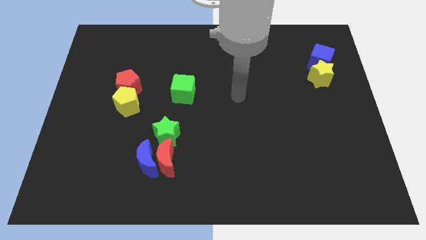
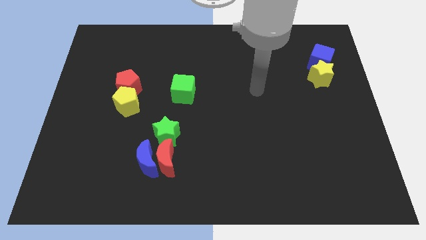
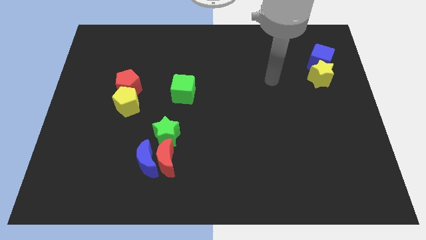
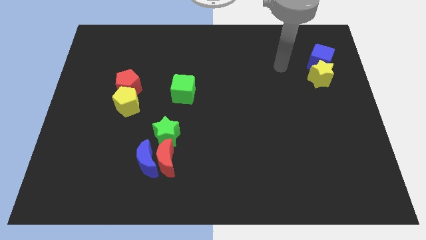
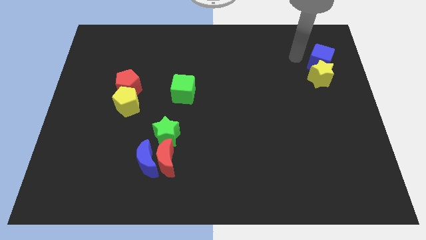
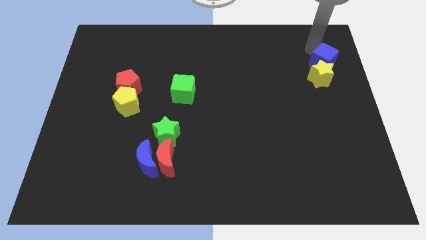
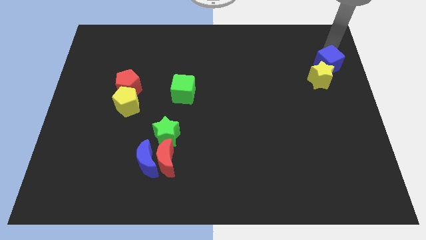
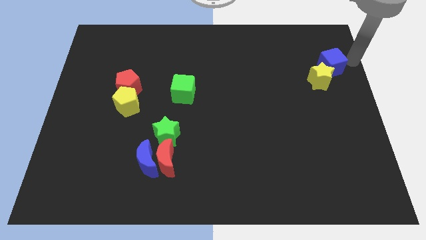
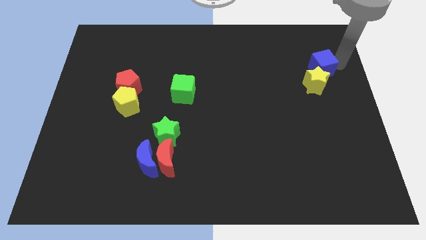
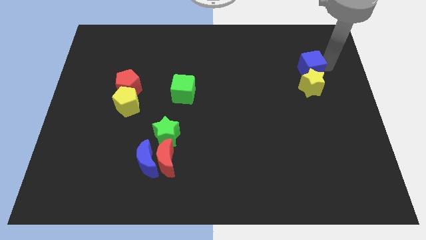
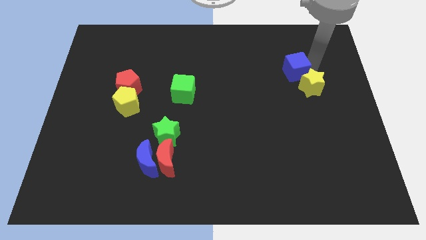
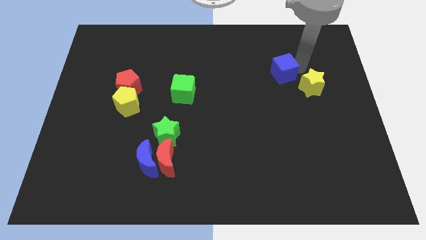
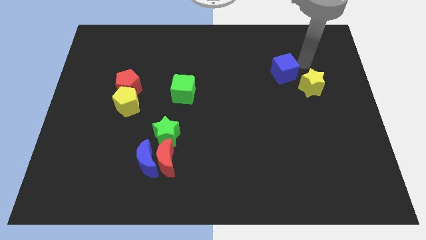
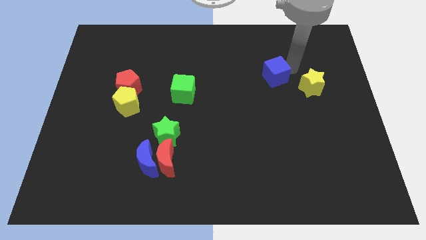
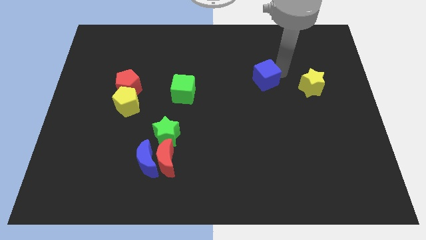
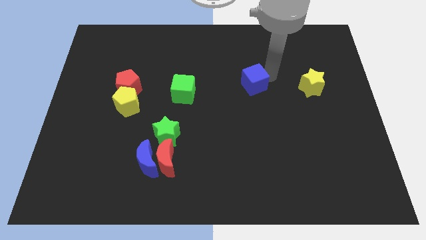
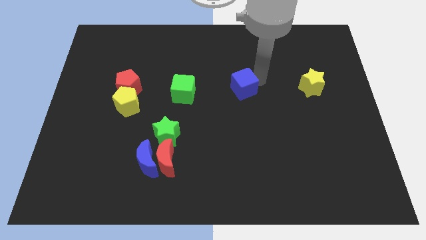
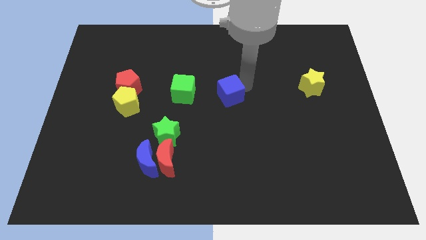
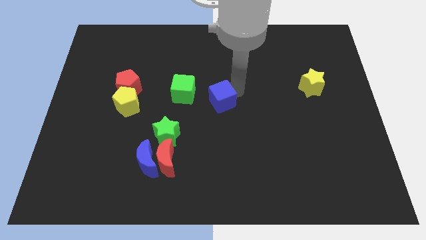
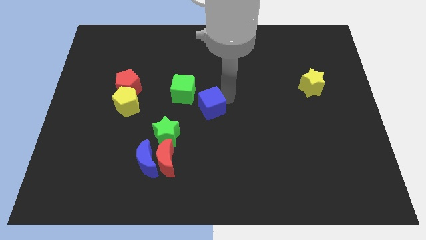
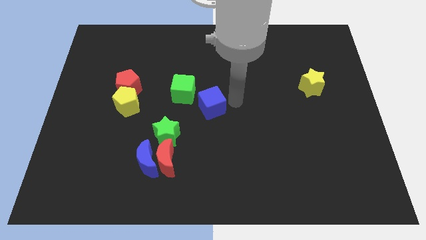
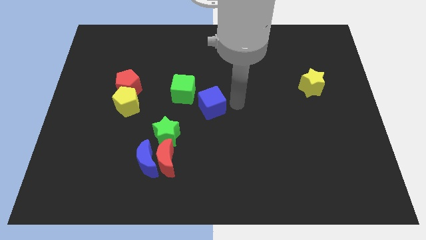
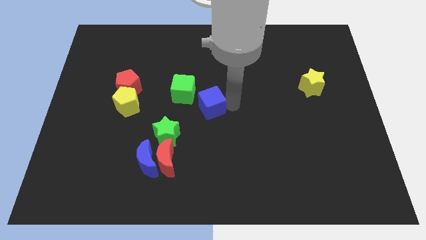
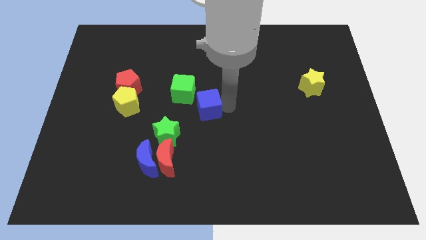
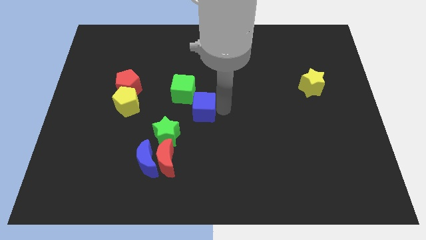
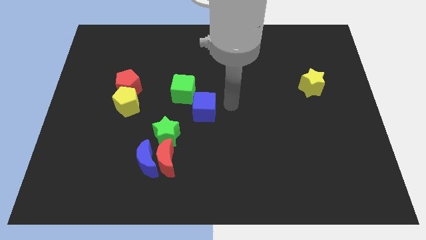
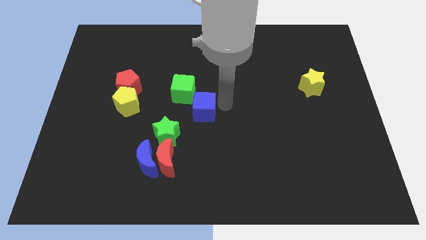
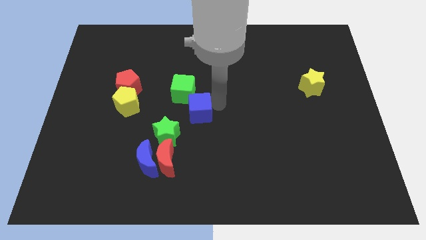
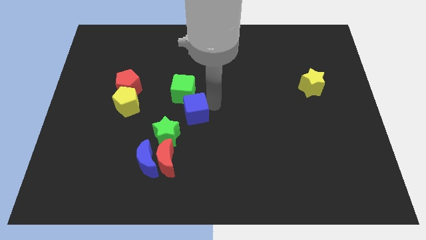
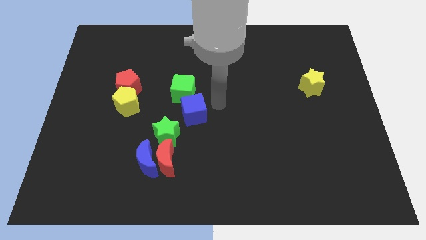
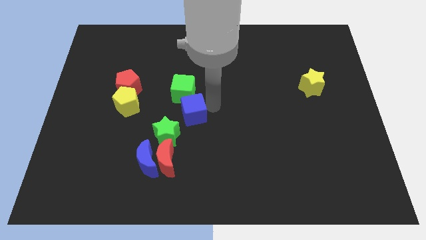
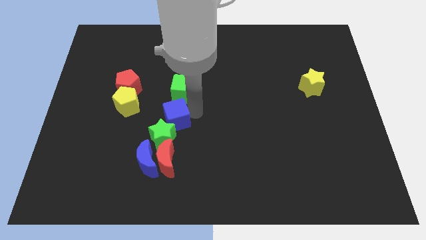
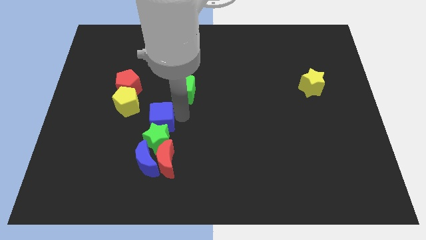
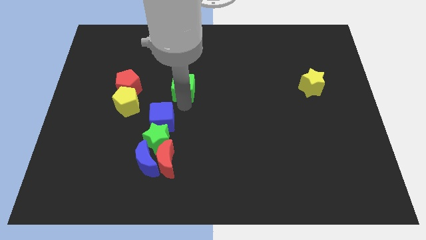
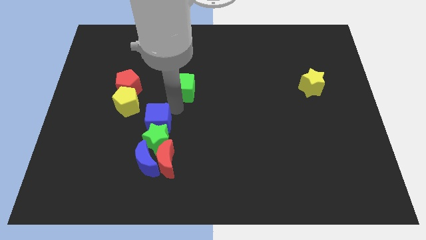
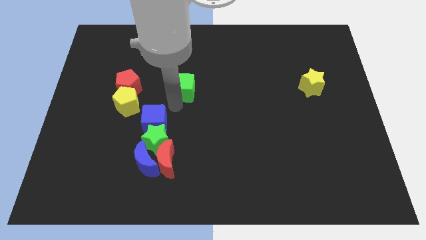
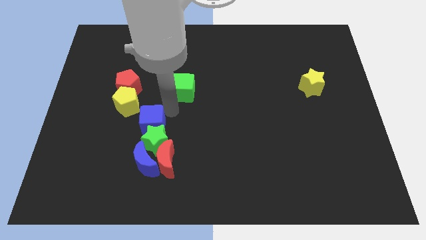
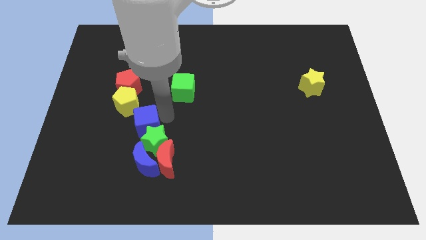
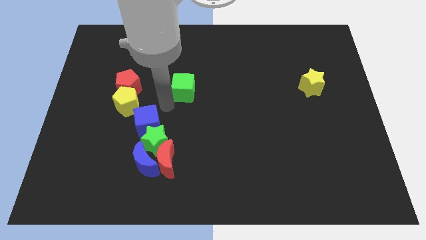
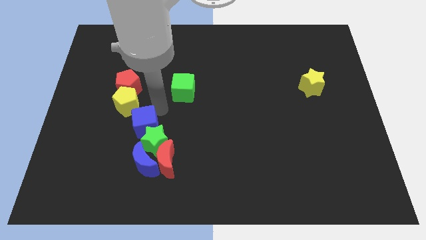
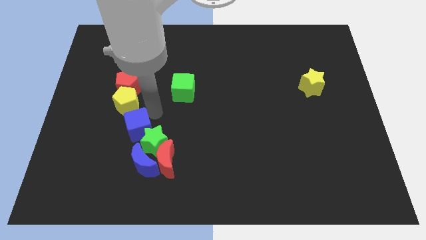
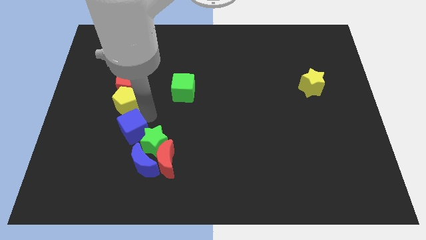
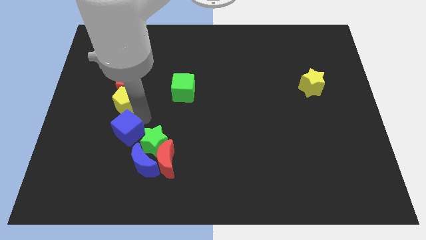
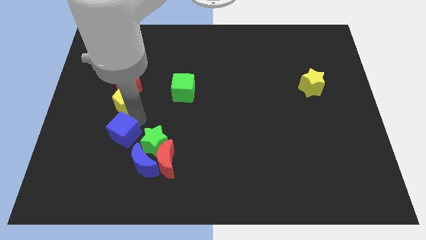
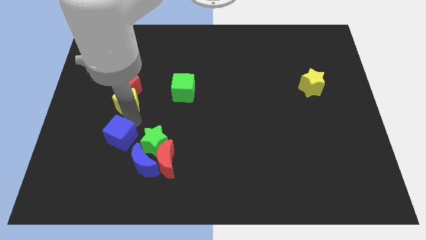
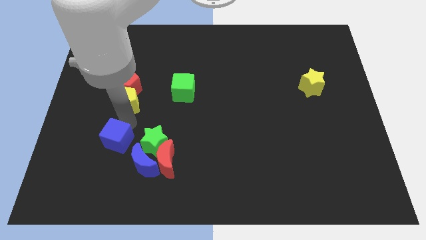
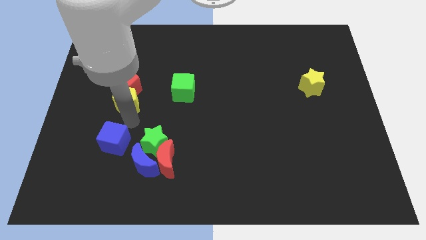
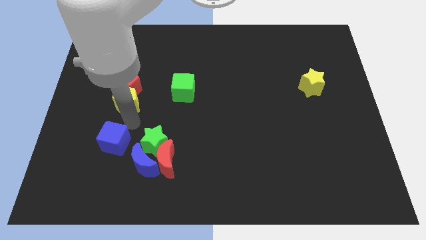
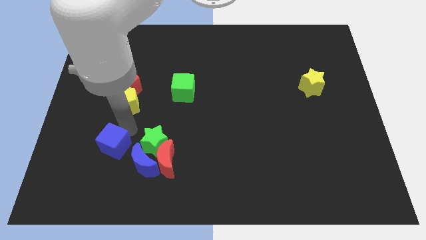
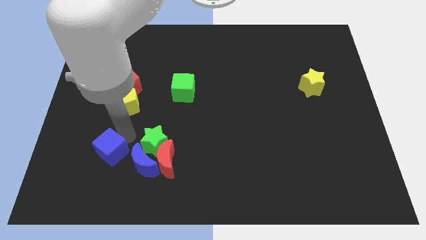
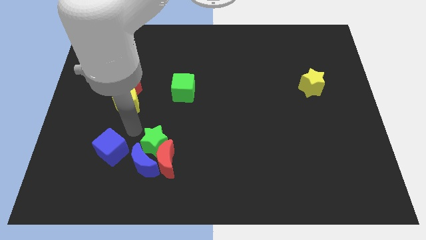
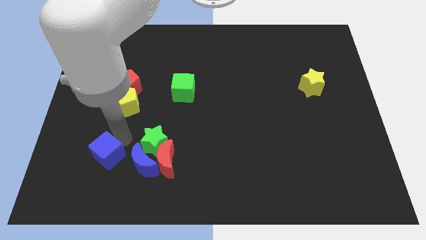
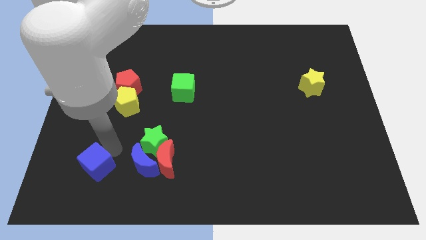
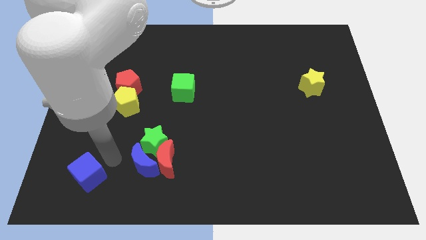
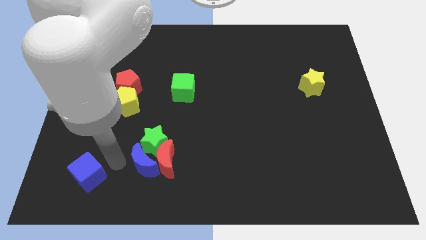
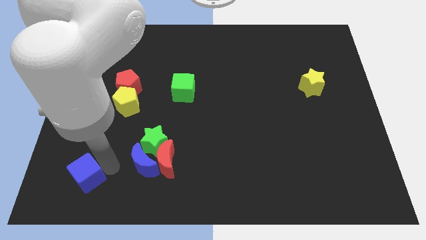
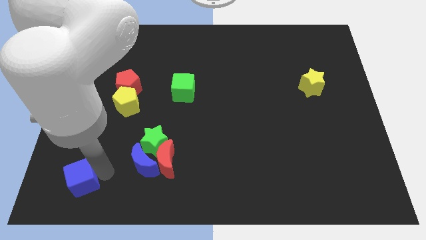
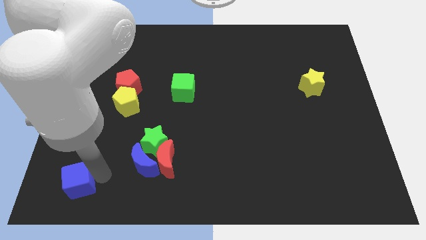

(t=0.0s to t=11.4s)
slide the blue cube to the lower left corner
